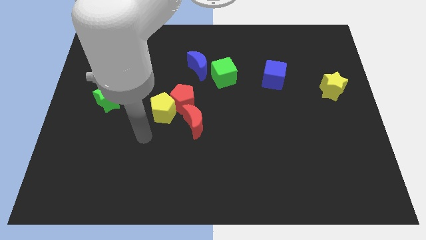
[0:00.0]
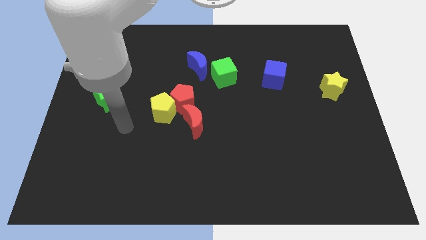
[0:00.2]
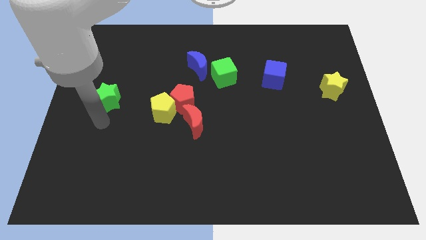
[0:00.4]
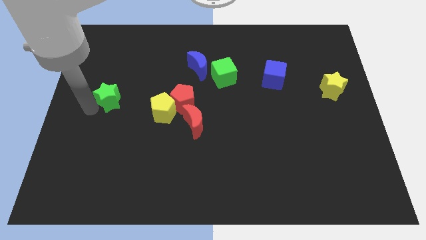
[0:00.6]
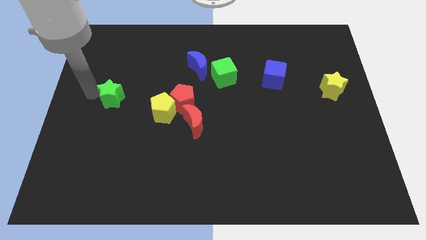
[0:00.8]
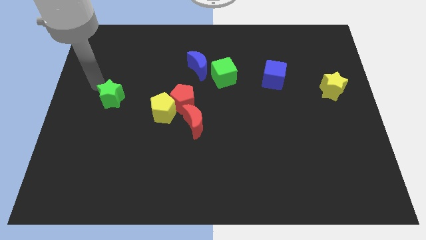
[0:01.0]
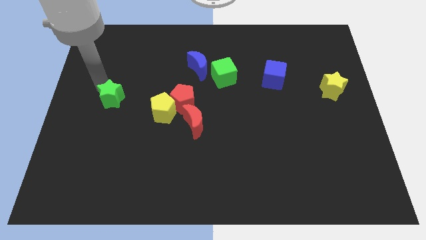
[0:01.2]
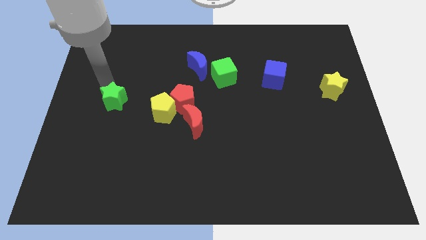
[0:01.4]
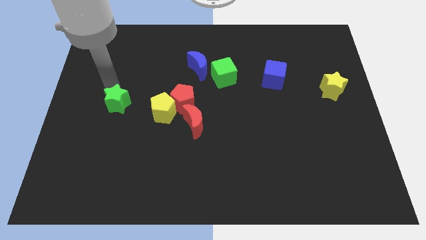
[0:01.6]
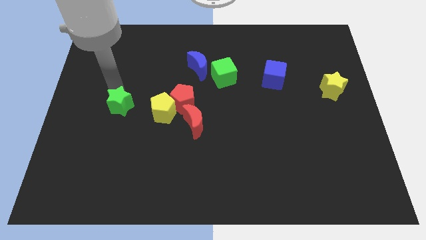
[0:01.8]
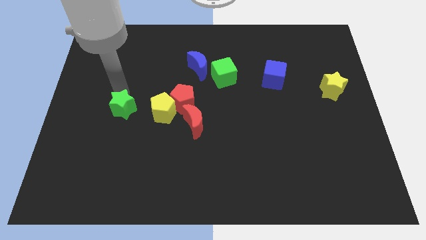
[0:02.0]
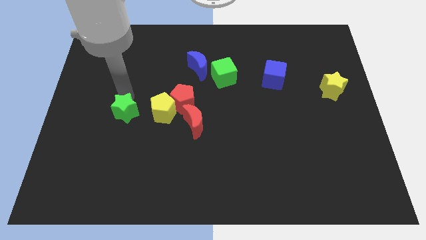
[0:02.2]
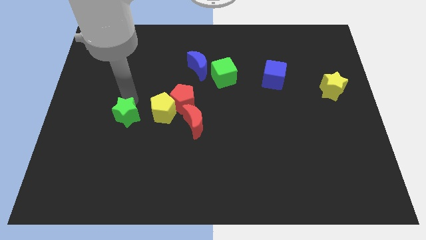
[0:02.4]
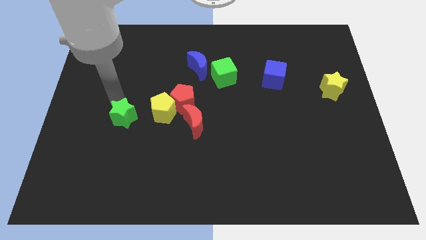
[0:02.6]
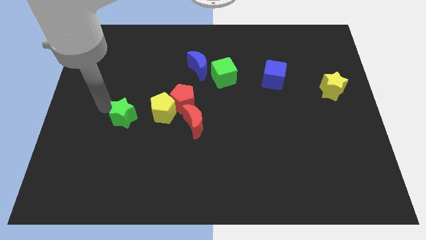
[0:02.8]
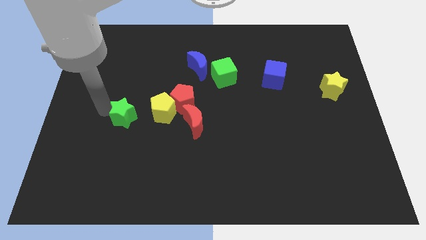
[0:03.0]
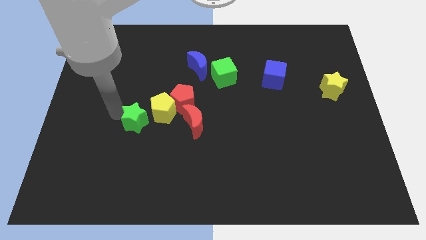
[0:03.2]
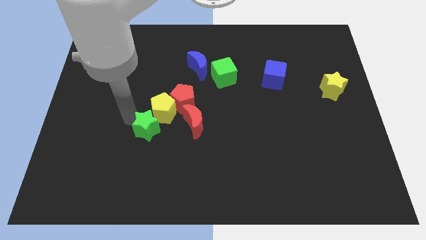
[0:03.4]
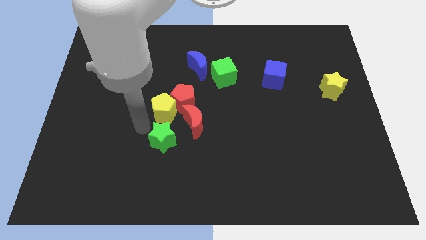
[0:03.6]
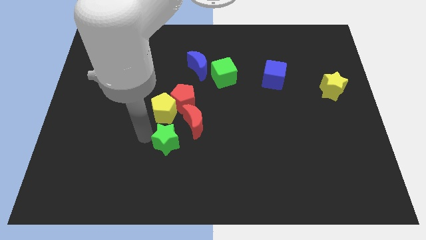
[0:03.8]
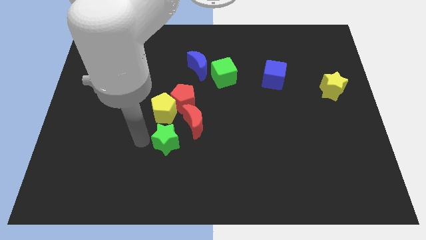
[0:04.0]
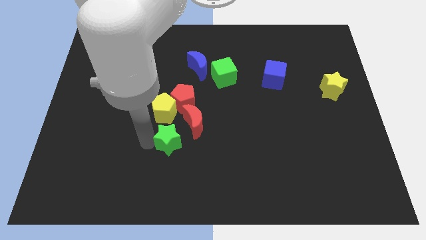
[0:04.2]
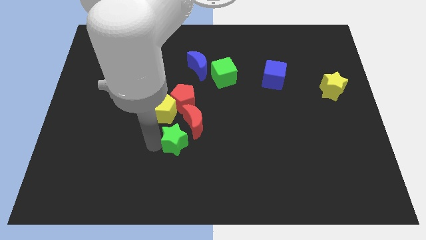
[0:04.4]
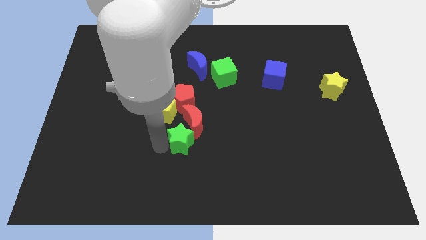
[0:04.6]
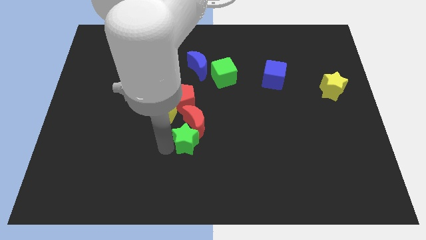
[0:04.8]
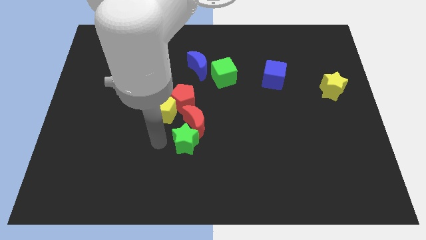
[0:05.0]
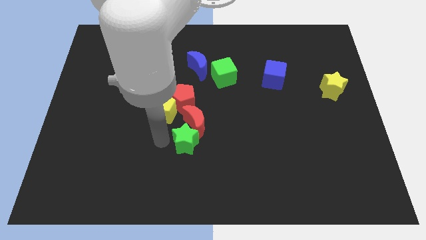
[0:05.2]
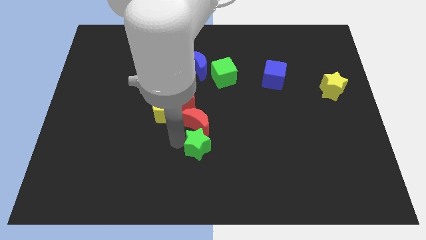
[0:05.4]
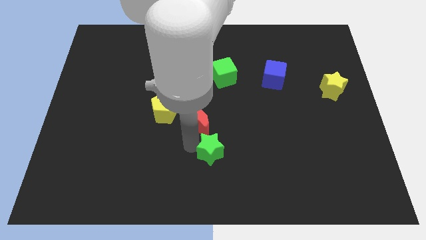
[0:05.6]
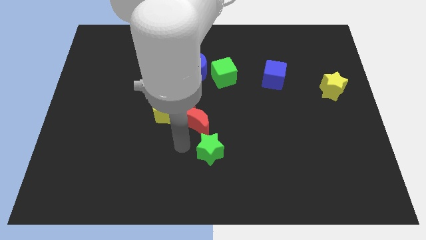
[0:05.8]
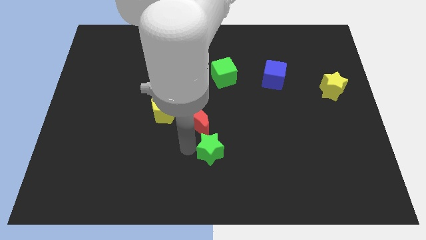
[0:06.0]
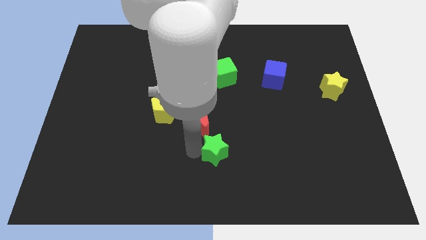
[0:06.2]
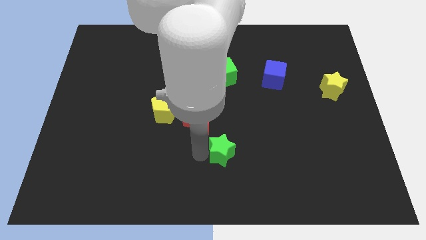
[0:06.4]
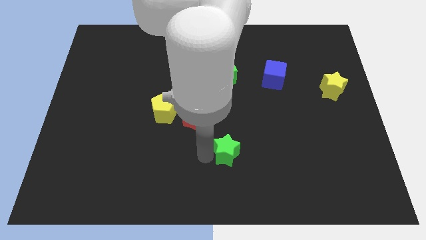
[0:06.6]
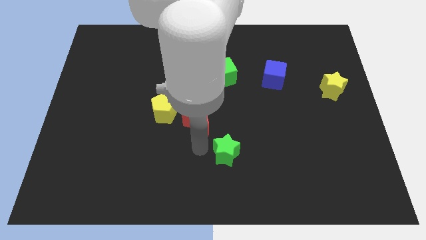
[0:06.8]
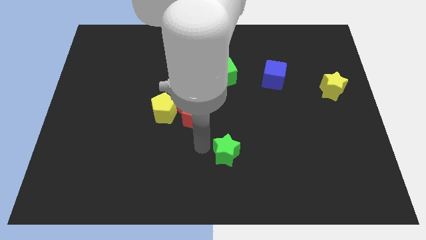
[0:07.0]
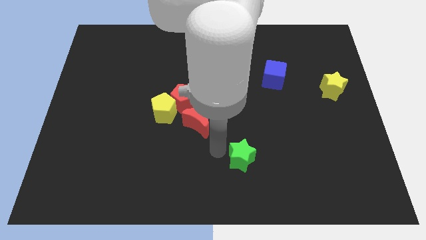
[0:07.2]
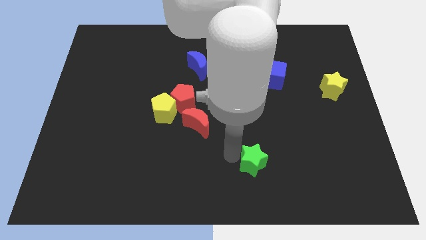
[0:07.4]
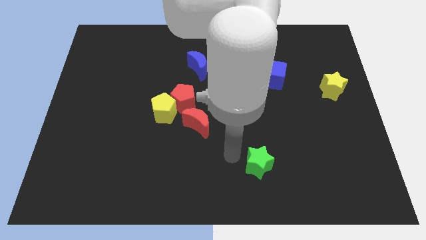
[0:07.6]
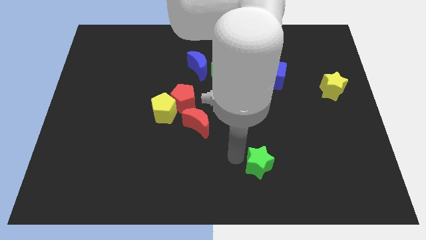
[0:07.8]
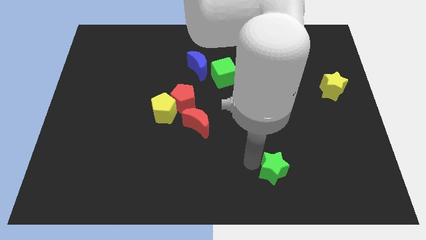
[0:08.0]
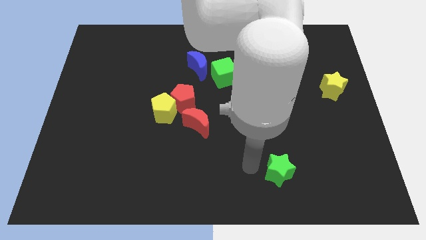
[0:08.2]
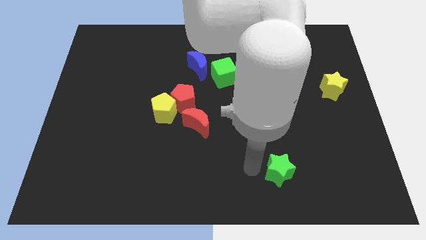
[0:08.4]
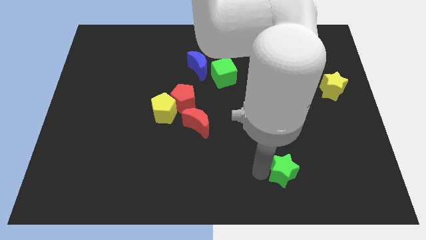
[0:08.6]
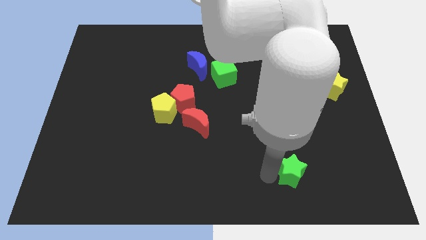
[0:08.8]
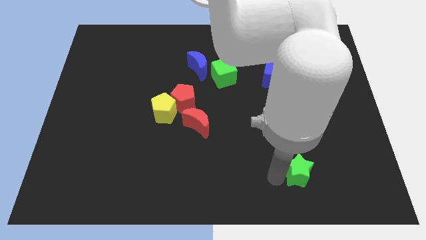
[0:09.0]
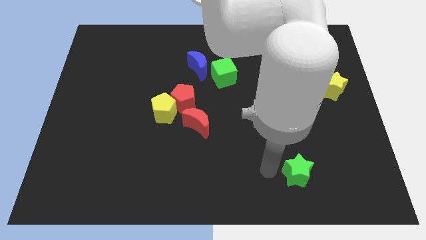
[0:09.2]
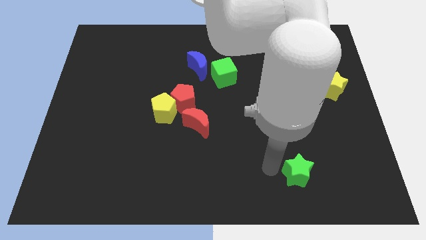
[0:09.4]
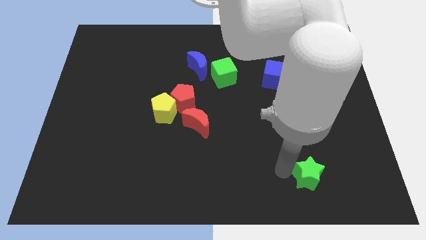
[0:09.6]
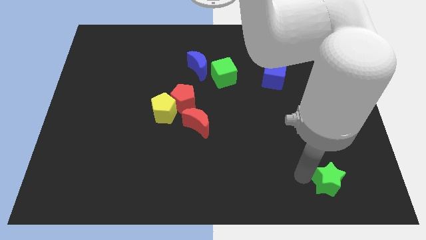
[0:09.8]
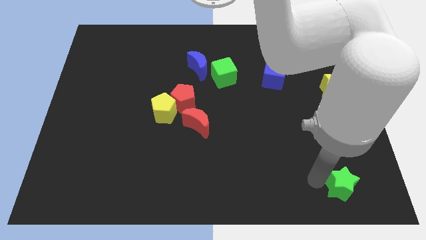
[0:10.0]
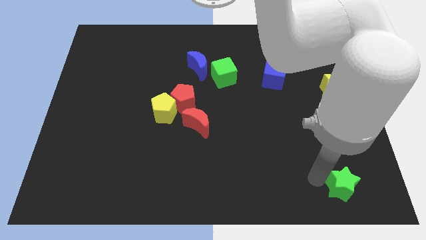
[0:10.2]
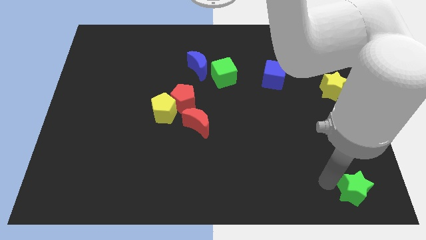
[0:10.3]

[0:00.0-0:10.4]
push the green star to the bottom right of the board

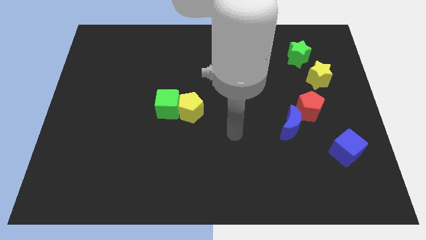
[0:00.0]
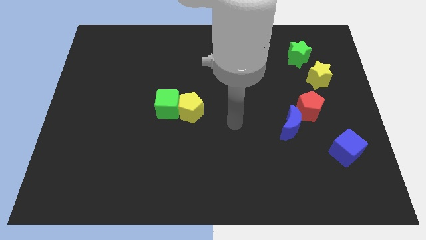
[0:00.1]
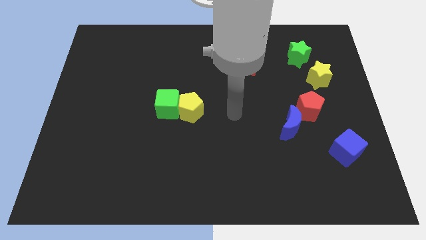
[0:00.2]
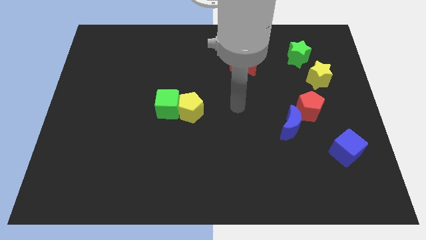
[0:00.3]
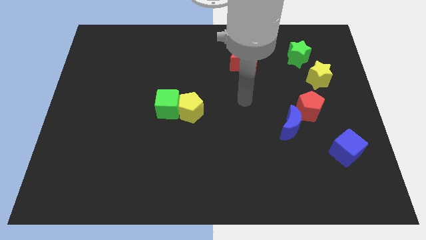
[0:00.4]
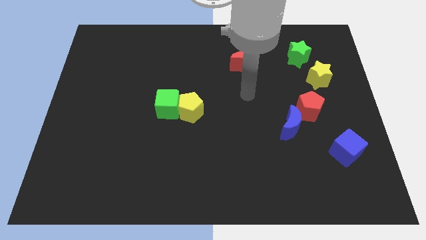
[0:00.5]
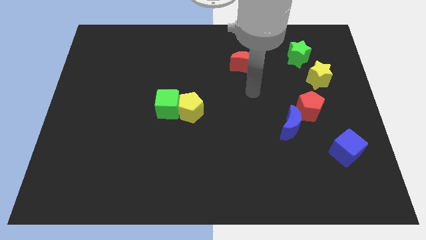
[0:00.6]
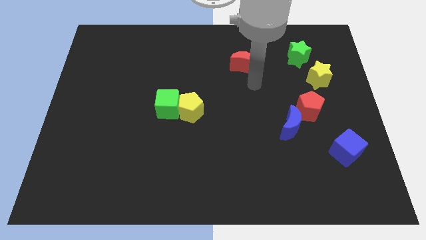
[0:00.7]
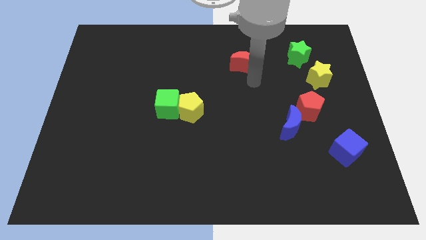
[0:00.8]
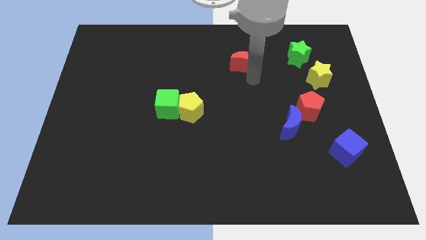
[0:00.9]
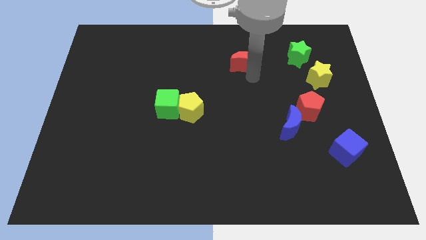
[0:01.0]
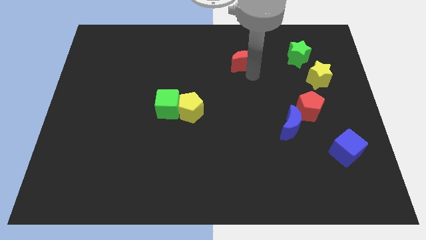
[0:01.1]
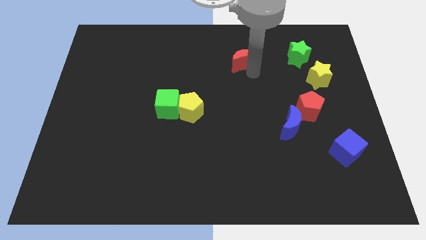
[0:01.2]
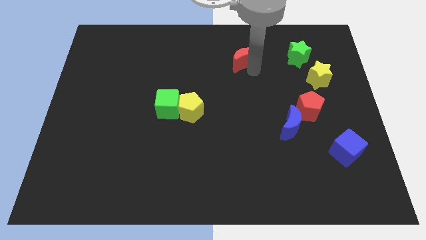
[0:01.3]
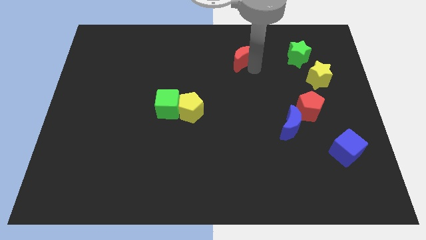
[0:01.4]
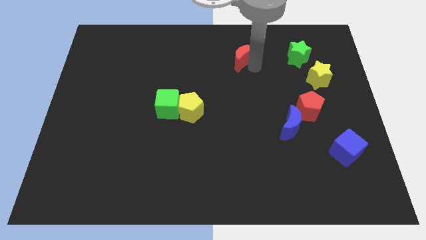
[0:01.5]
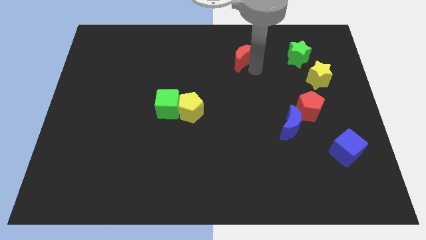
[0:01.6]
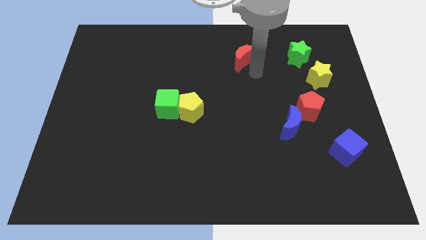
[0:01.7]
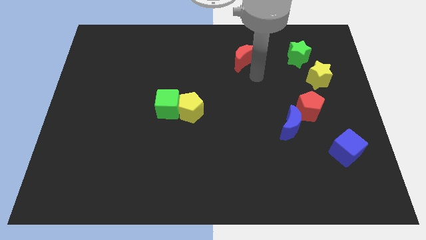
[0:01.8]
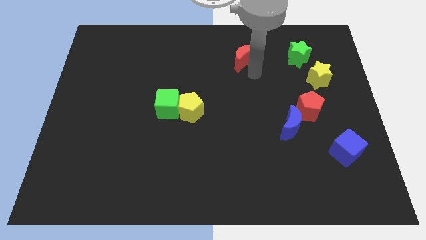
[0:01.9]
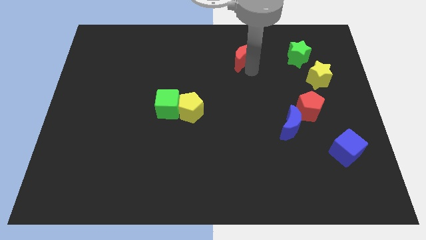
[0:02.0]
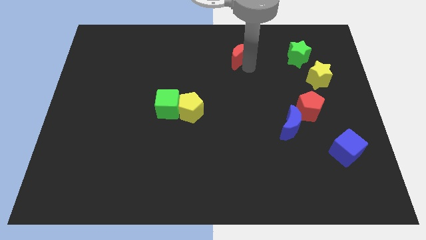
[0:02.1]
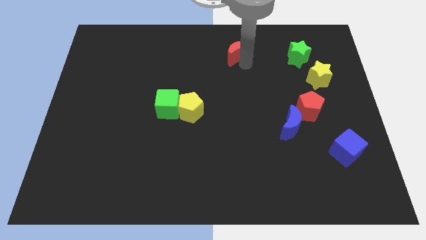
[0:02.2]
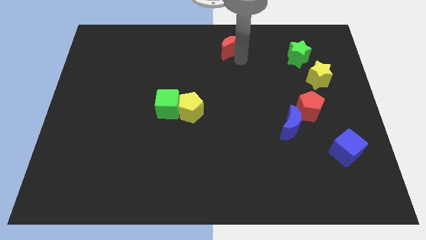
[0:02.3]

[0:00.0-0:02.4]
slide the red moon to the top
